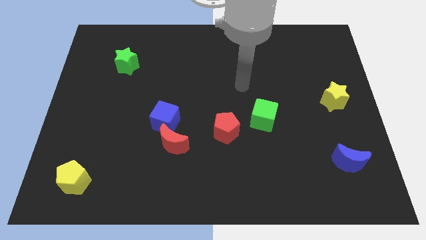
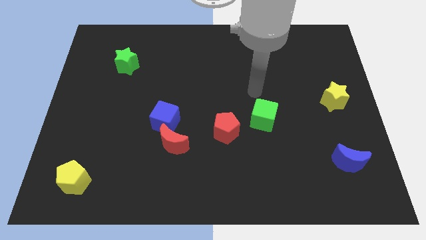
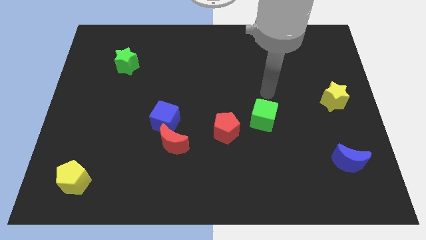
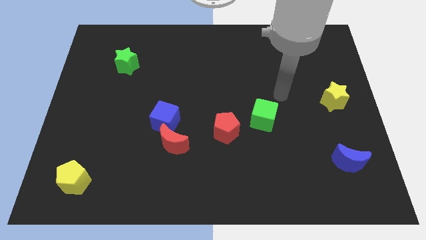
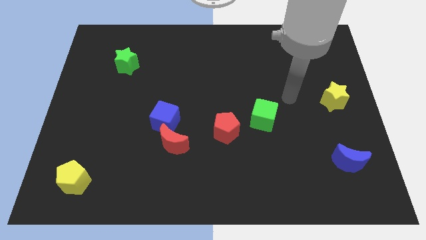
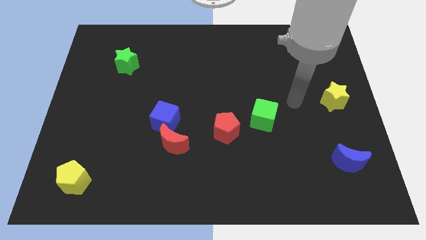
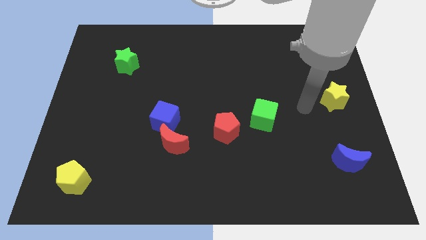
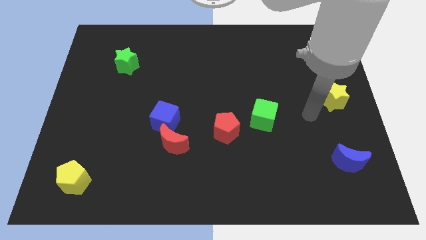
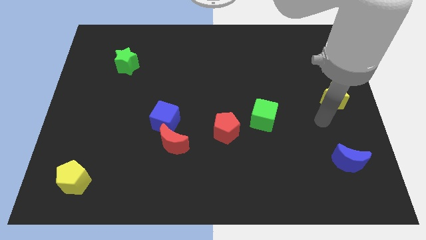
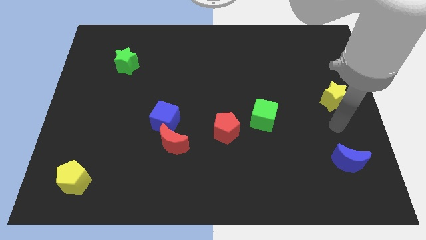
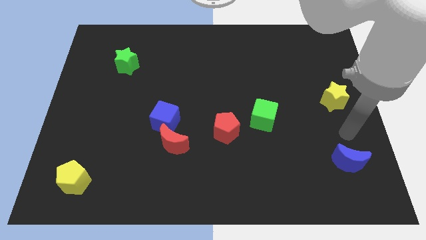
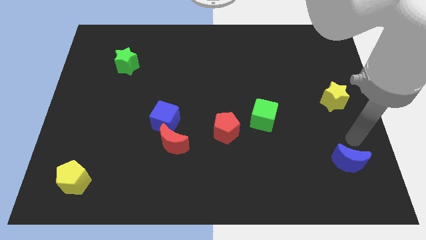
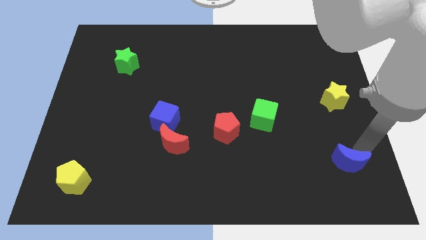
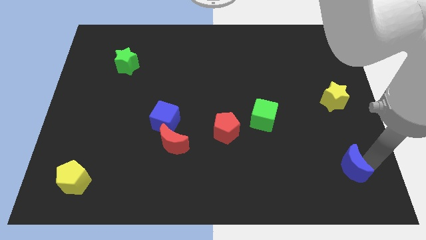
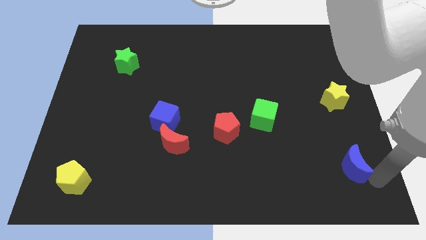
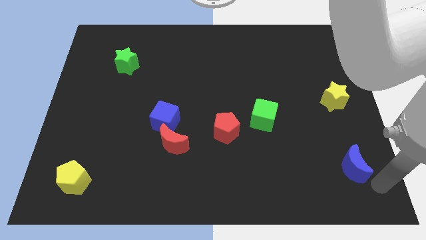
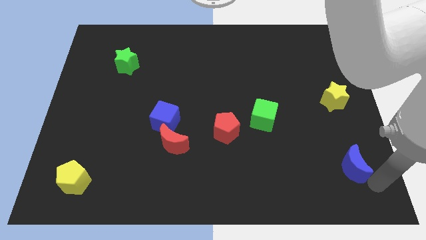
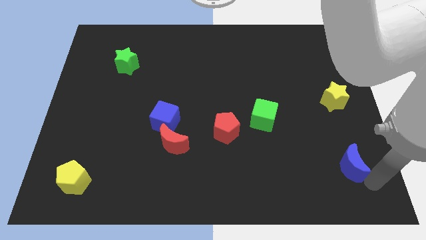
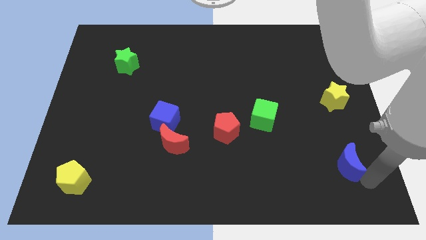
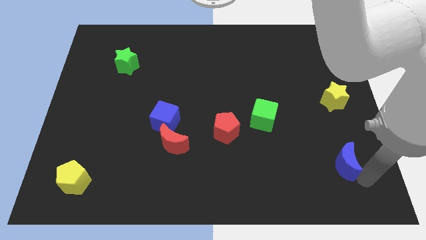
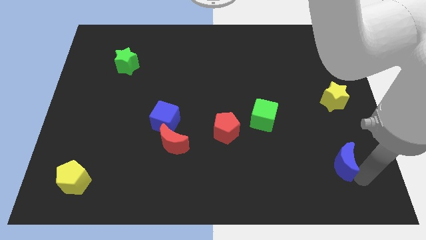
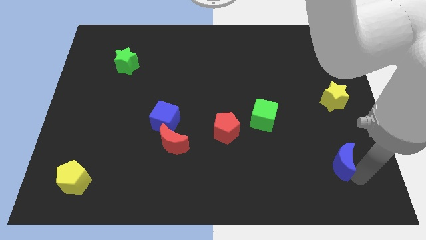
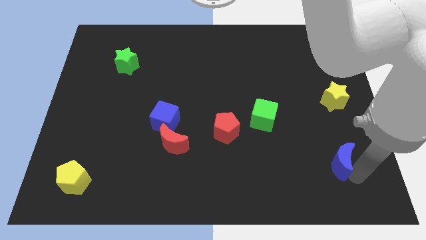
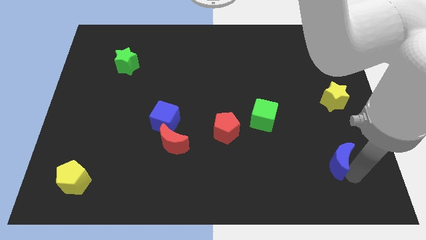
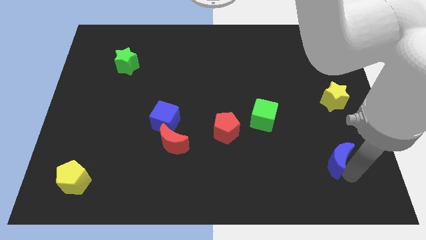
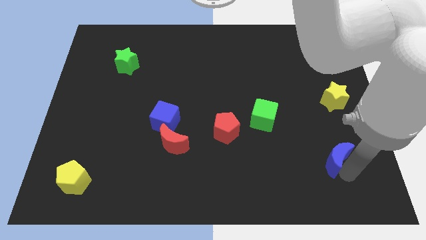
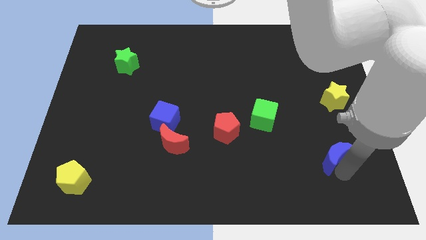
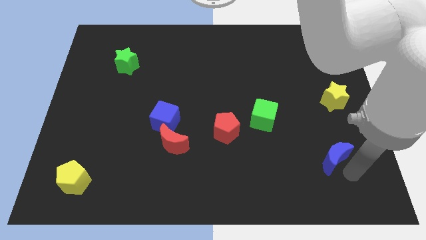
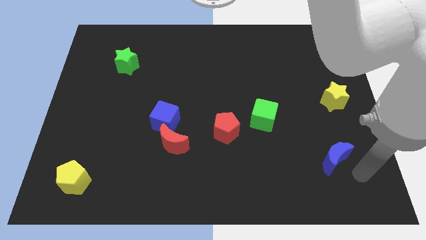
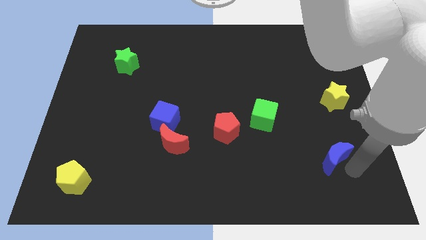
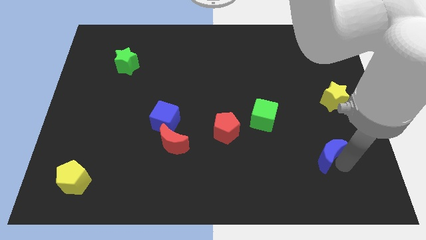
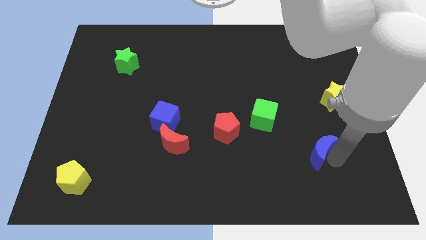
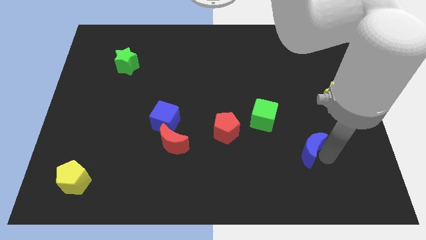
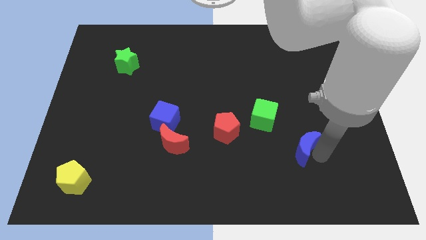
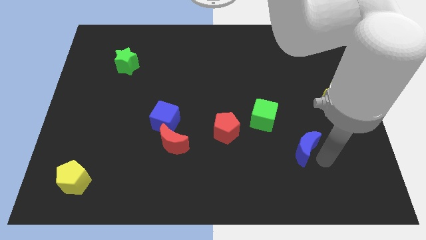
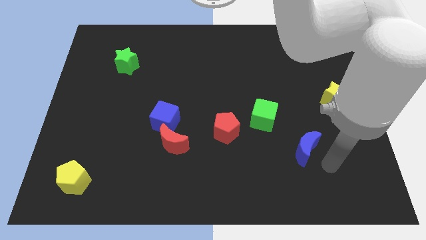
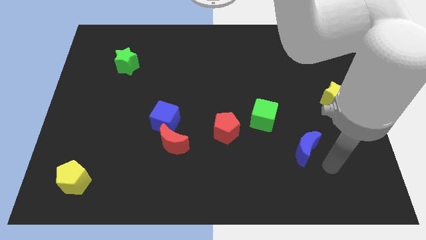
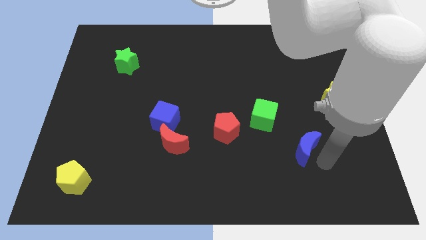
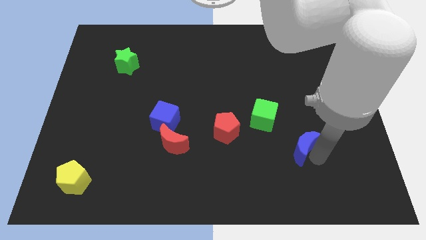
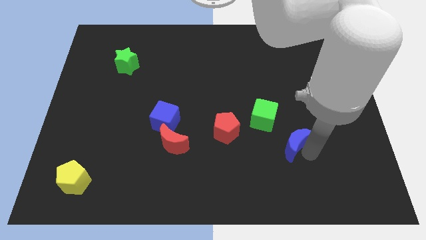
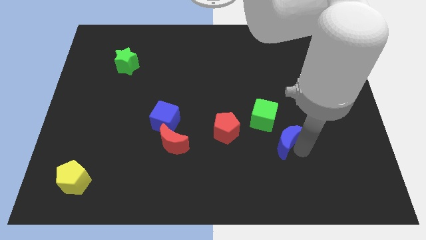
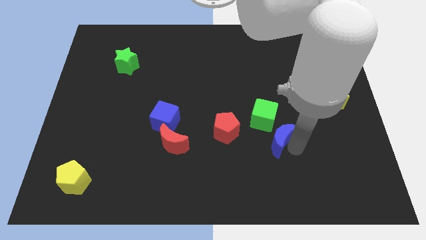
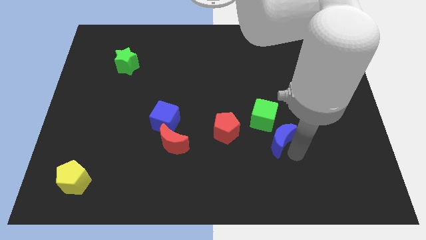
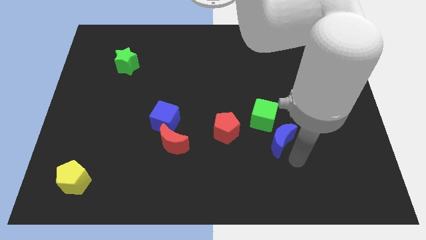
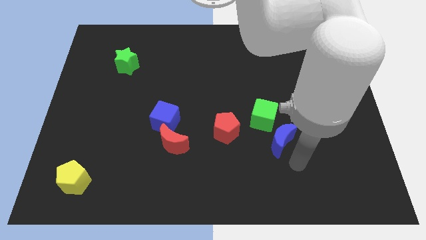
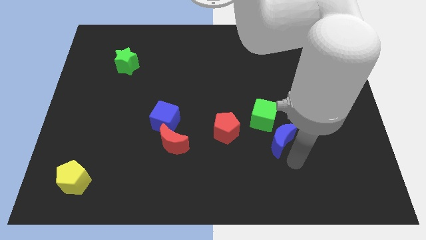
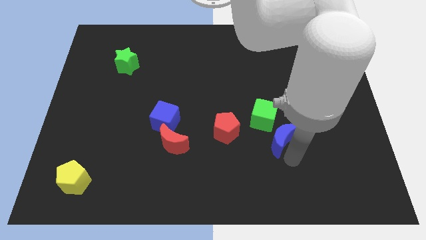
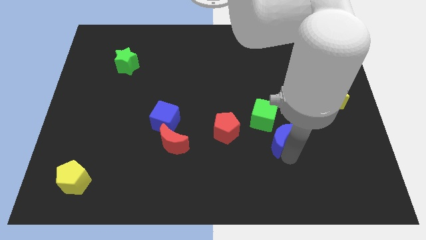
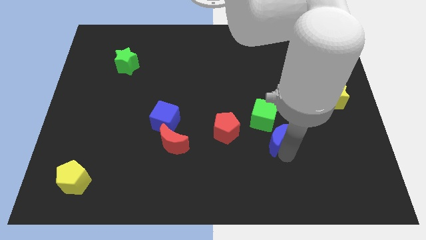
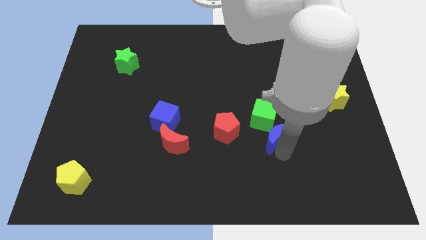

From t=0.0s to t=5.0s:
move the blue moon to the green cube

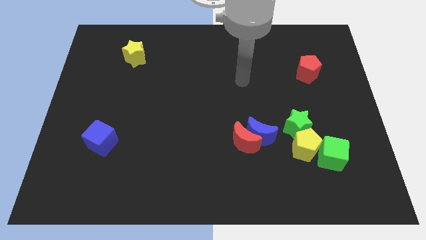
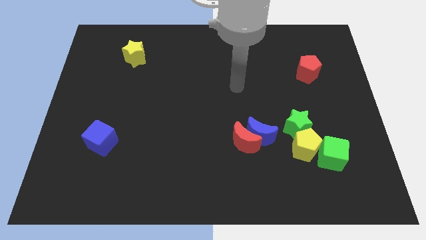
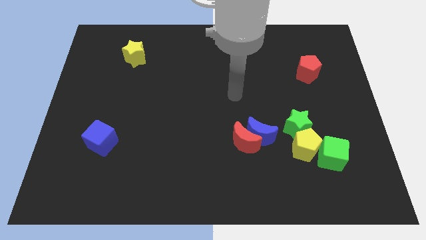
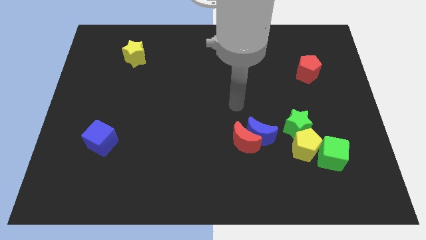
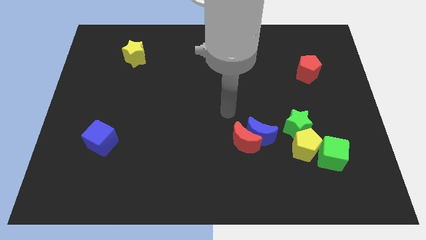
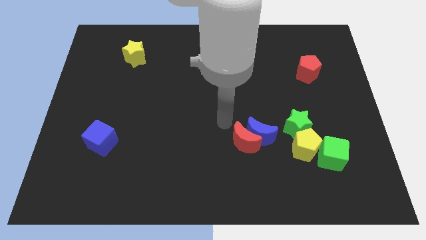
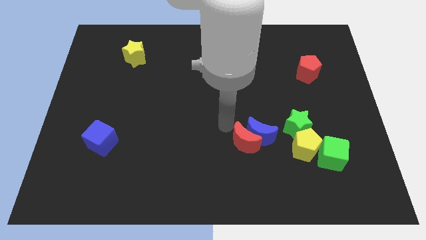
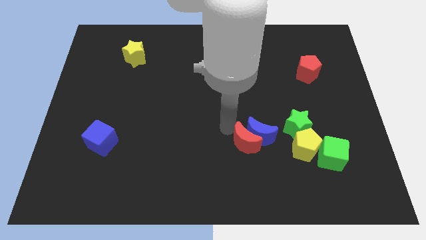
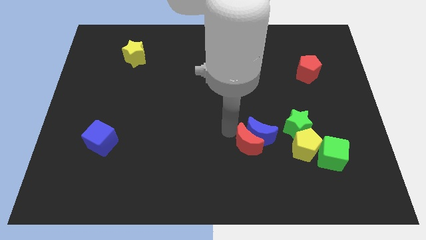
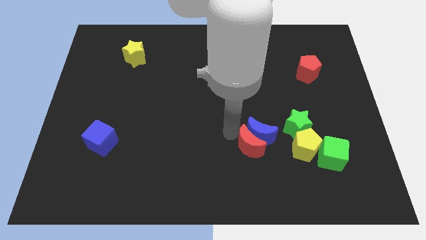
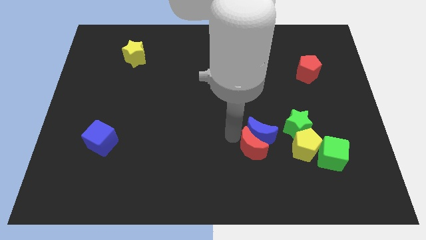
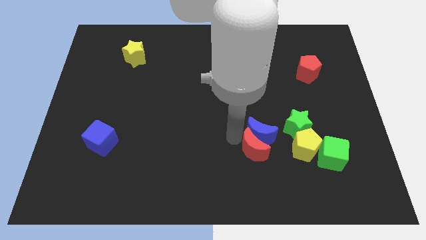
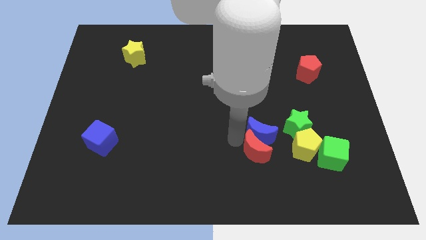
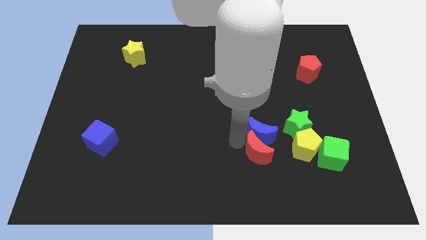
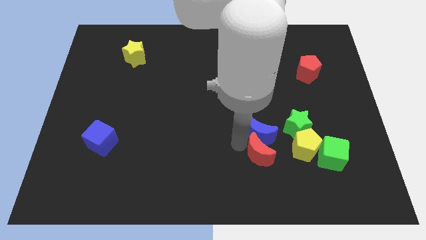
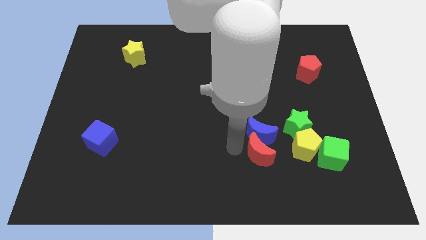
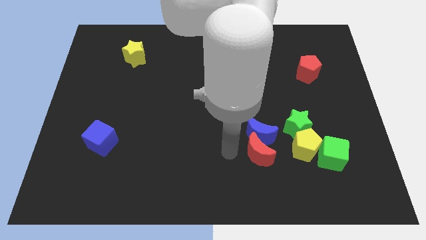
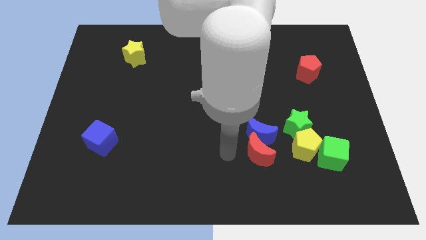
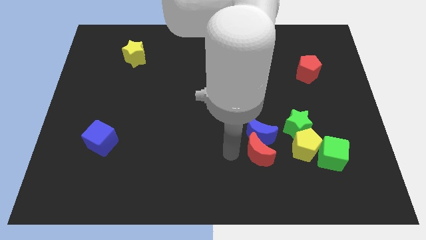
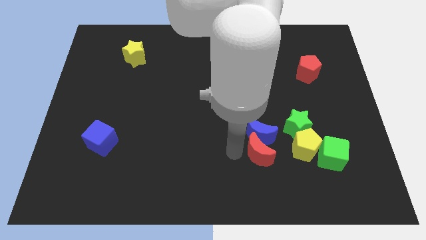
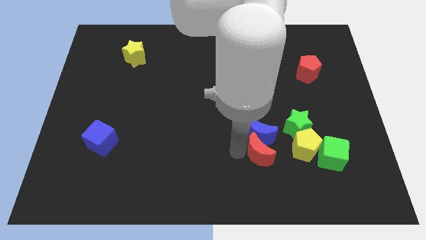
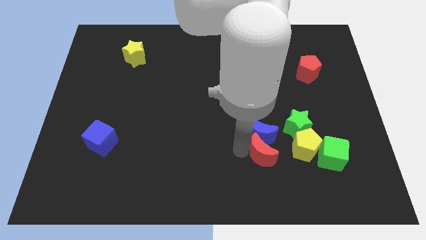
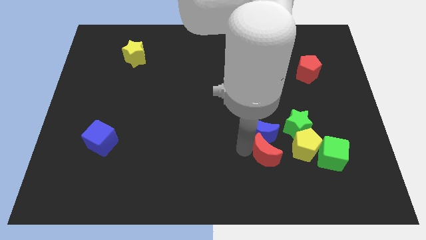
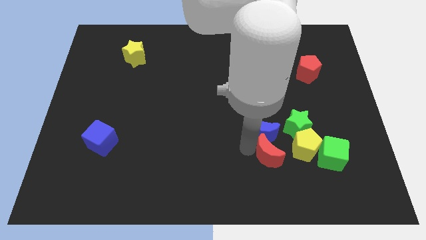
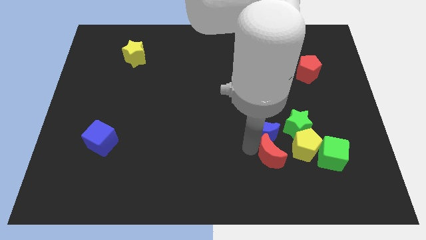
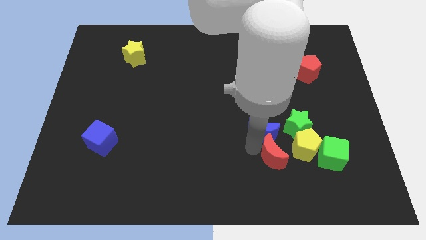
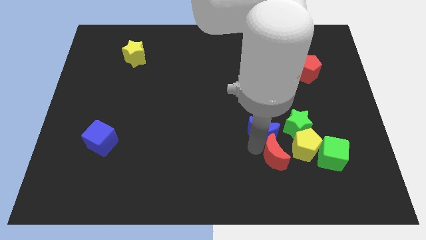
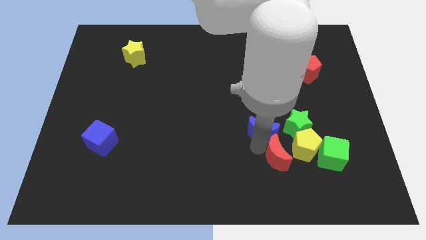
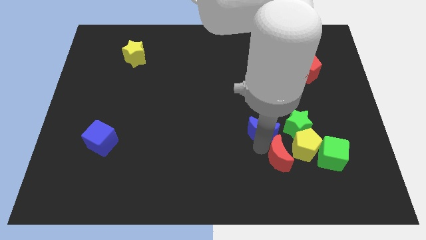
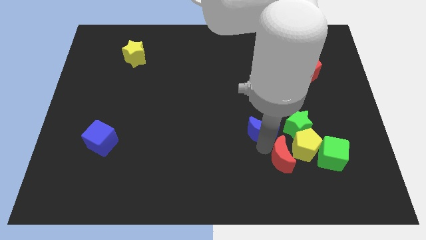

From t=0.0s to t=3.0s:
push the red moon towards the yellow pentagon

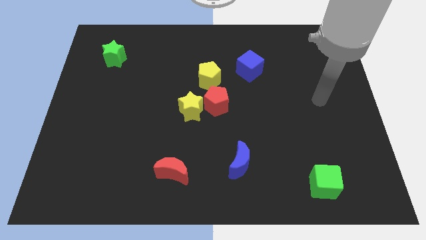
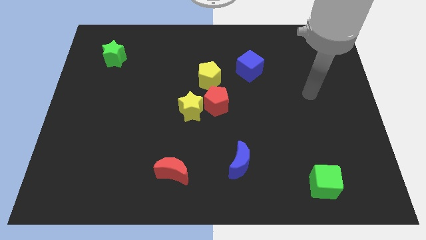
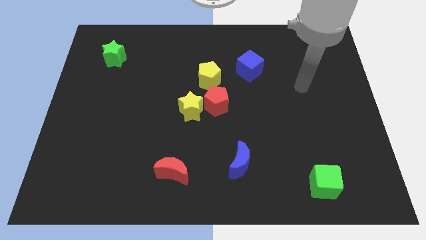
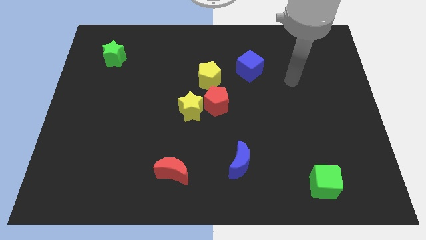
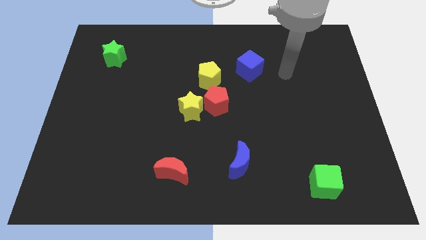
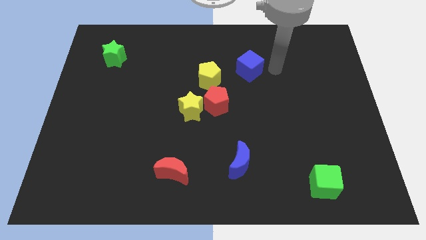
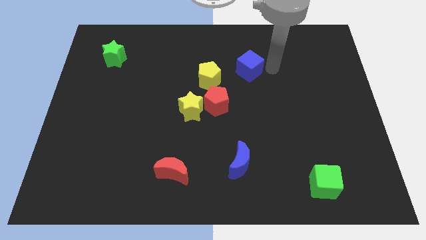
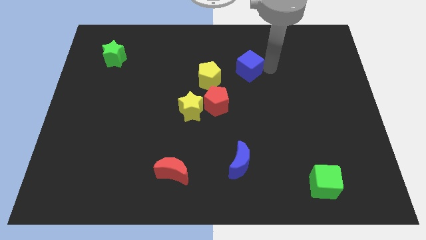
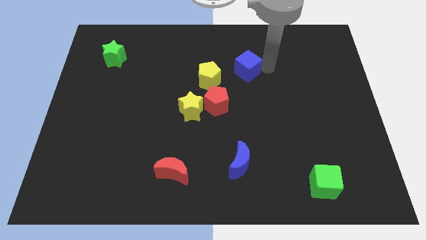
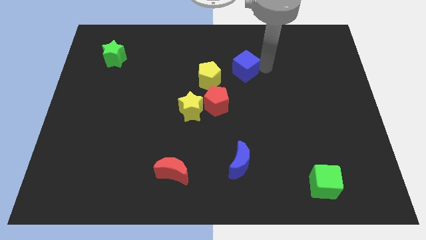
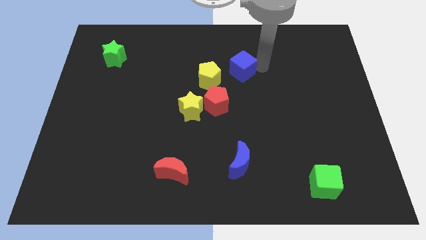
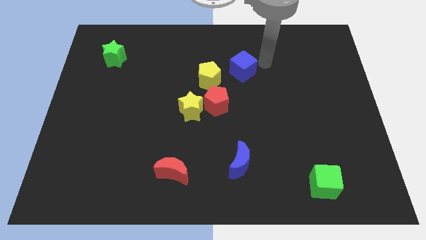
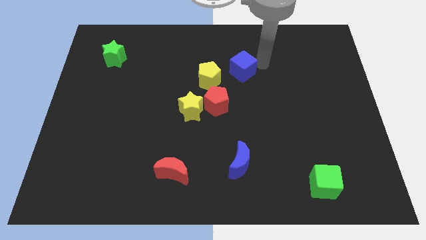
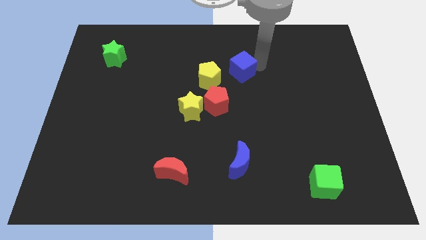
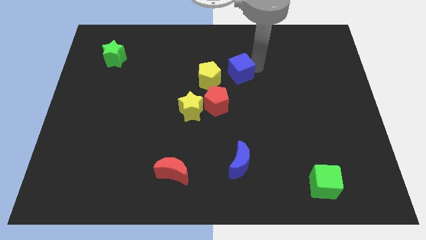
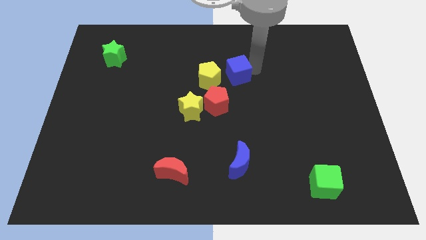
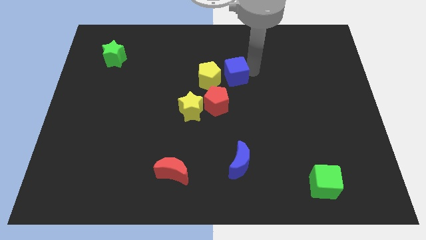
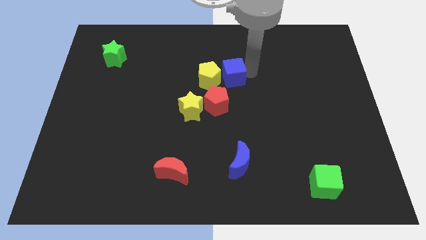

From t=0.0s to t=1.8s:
move the blue cube close to the yellow pentagon
